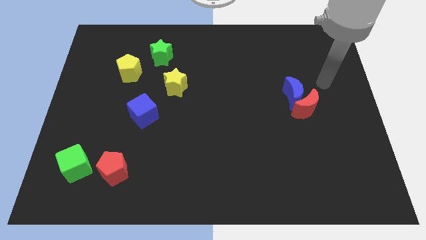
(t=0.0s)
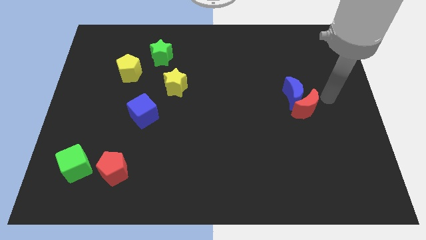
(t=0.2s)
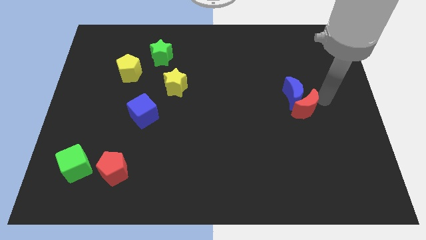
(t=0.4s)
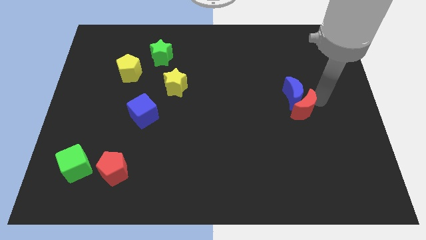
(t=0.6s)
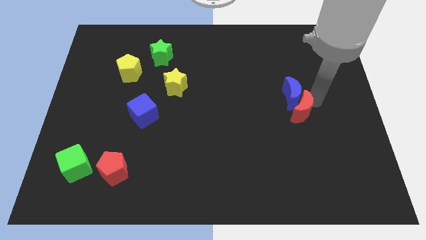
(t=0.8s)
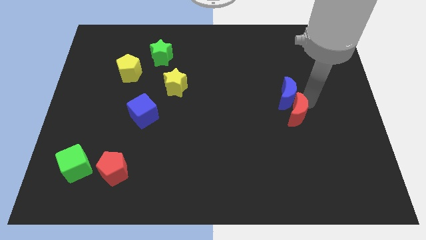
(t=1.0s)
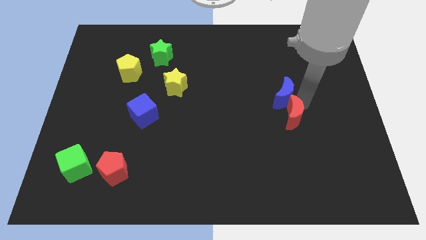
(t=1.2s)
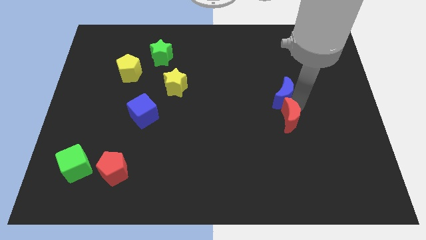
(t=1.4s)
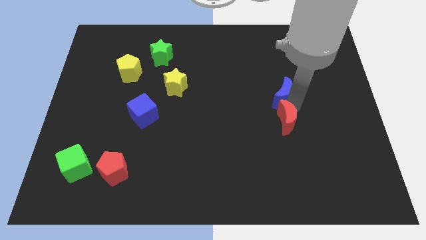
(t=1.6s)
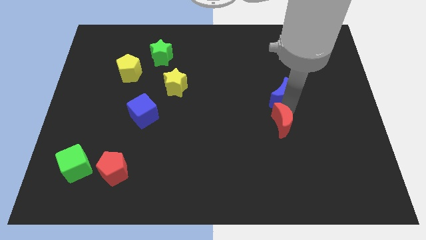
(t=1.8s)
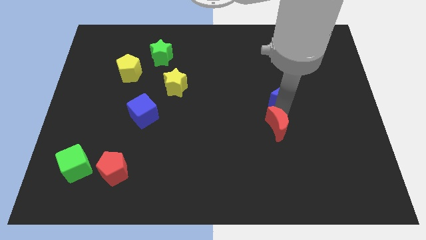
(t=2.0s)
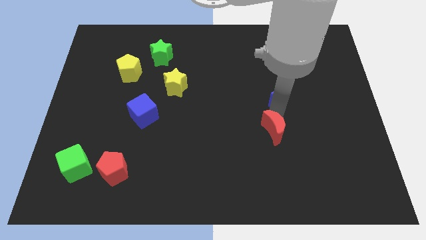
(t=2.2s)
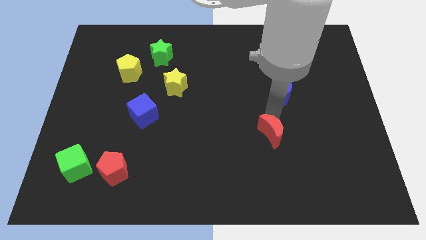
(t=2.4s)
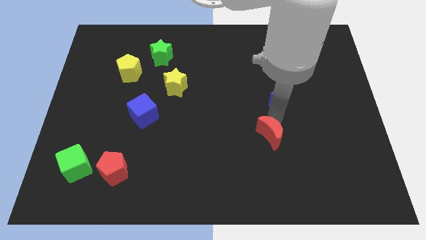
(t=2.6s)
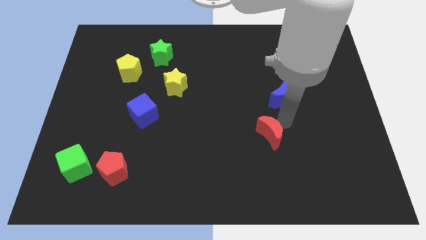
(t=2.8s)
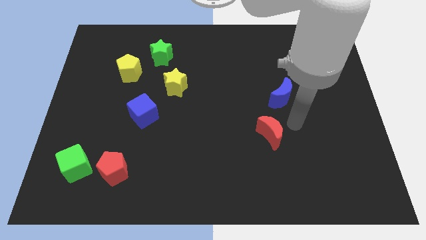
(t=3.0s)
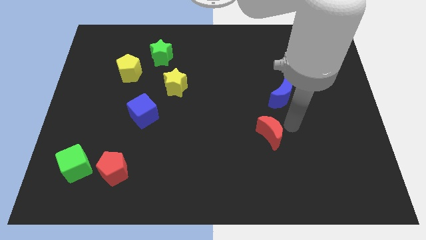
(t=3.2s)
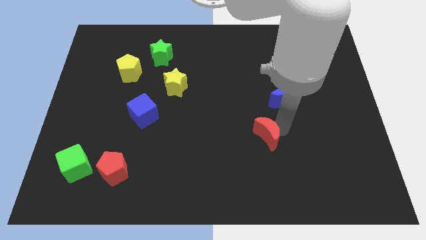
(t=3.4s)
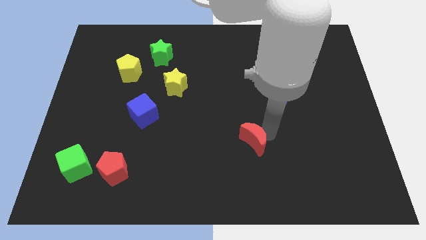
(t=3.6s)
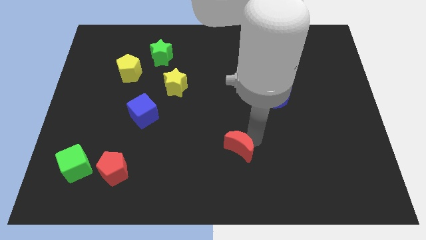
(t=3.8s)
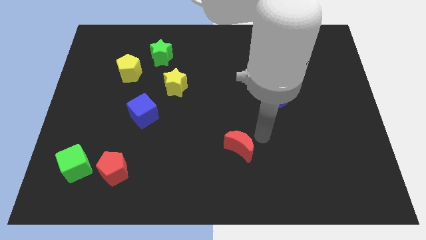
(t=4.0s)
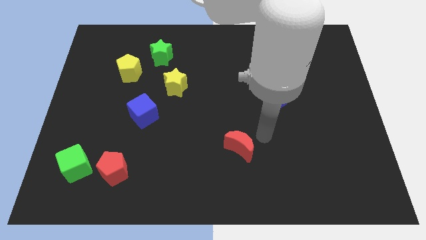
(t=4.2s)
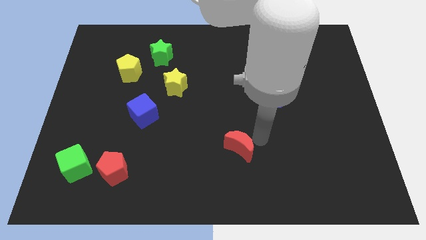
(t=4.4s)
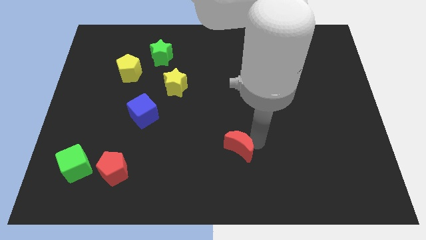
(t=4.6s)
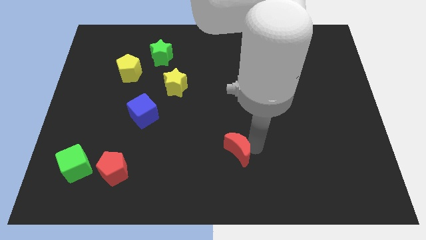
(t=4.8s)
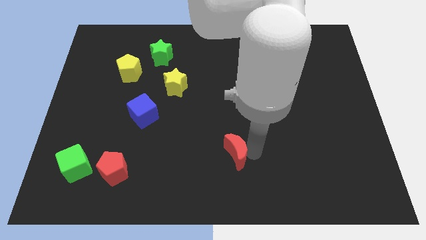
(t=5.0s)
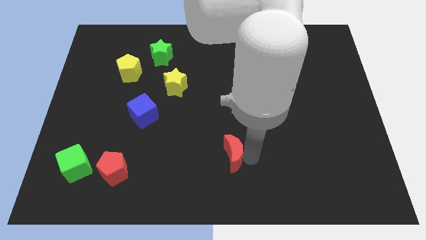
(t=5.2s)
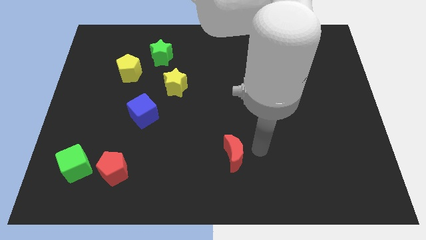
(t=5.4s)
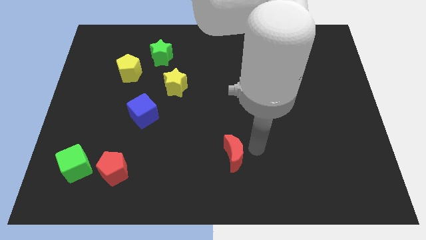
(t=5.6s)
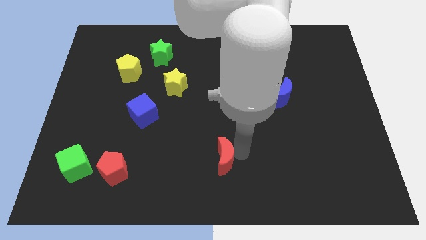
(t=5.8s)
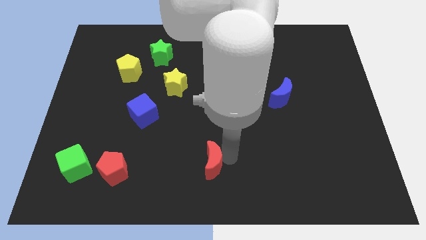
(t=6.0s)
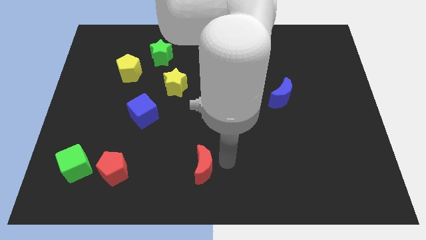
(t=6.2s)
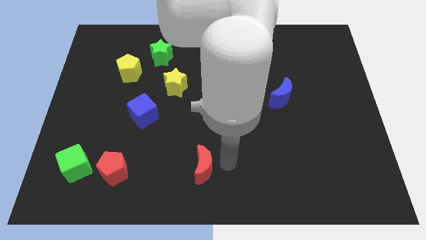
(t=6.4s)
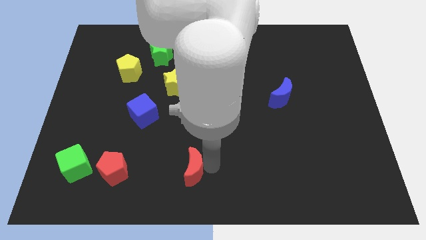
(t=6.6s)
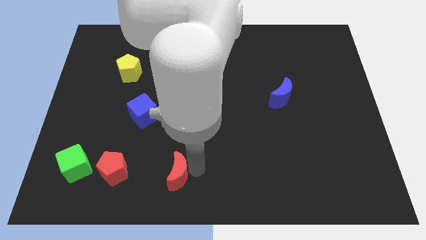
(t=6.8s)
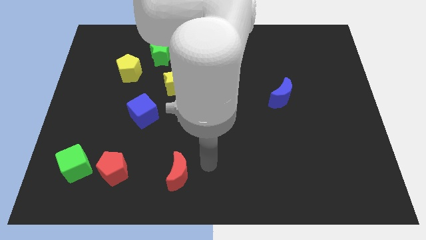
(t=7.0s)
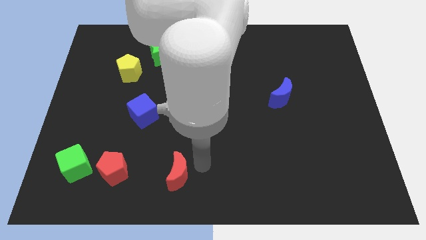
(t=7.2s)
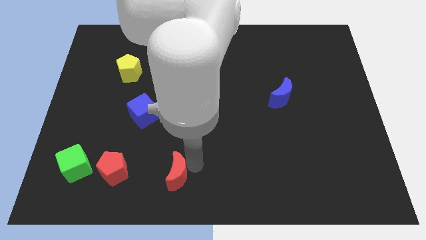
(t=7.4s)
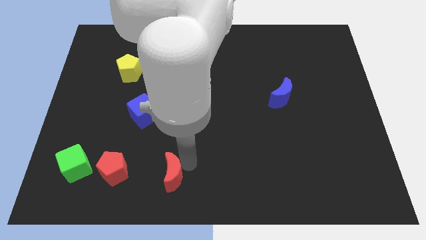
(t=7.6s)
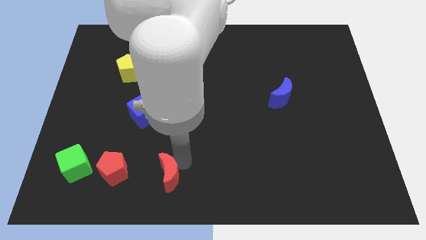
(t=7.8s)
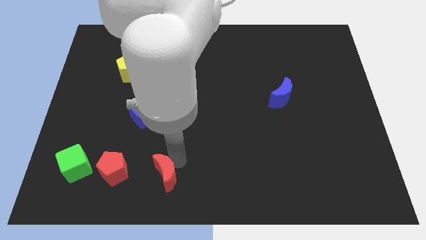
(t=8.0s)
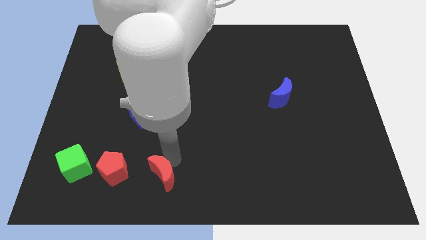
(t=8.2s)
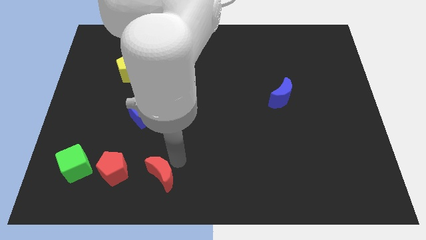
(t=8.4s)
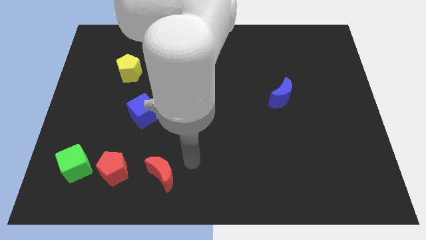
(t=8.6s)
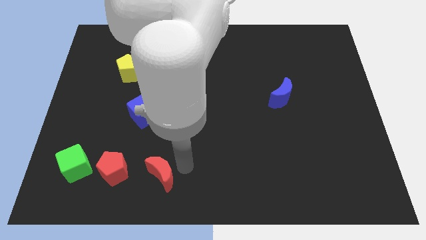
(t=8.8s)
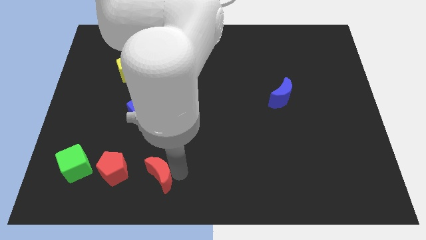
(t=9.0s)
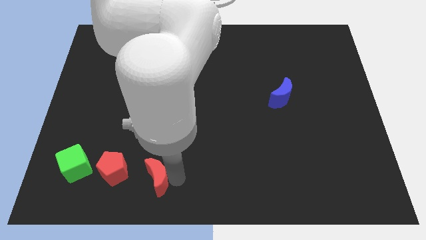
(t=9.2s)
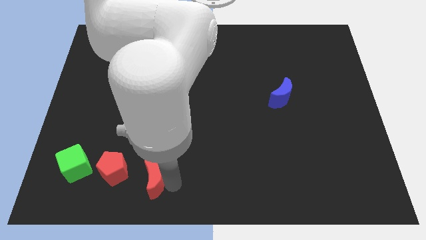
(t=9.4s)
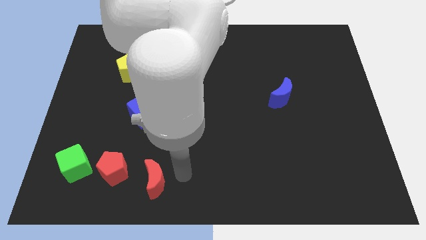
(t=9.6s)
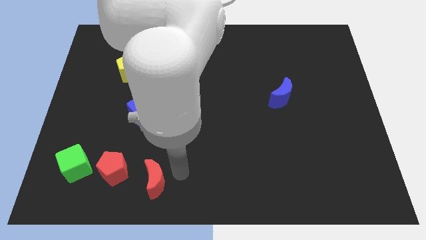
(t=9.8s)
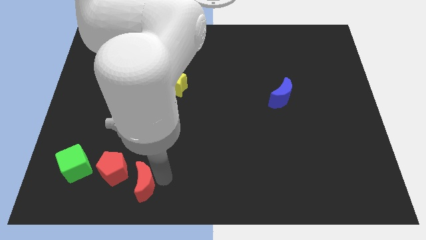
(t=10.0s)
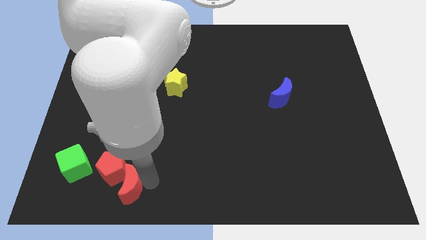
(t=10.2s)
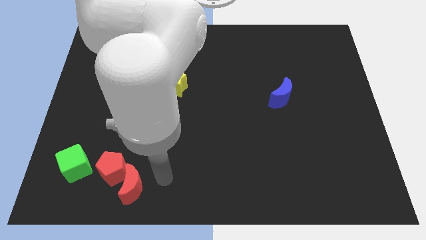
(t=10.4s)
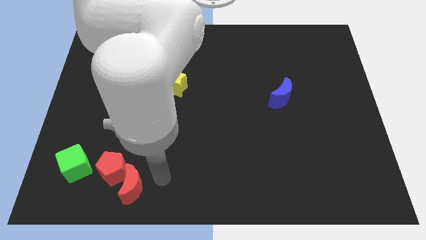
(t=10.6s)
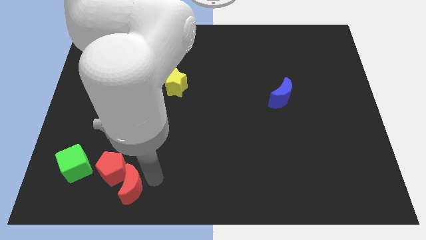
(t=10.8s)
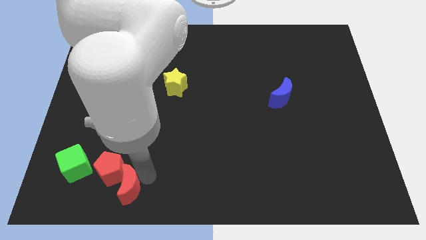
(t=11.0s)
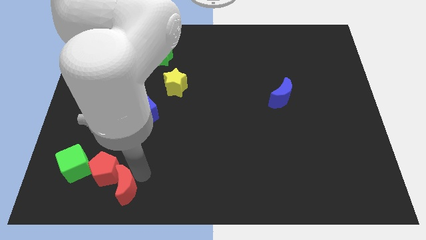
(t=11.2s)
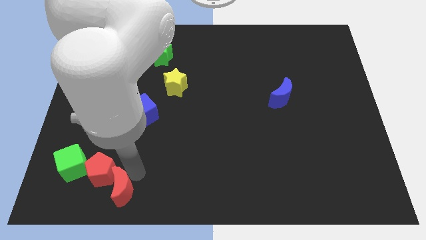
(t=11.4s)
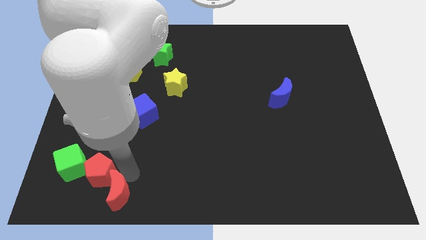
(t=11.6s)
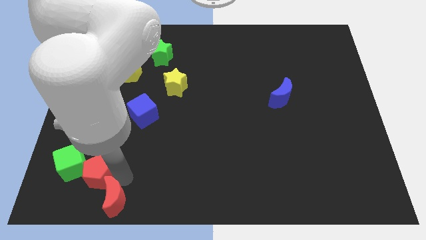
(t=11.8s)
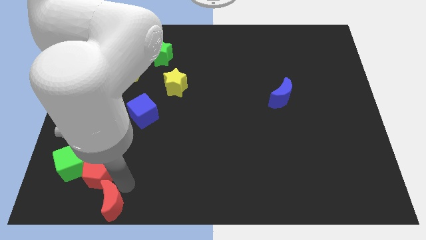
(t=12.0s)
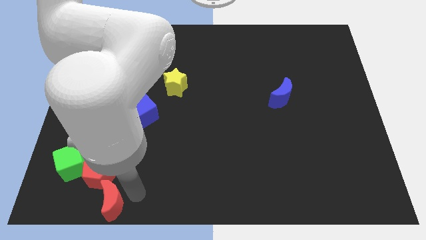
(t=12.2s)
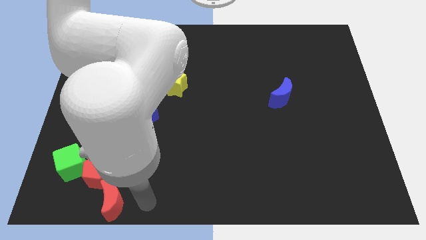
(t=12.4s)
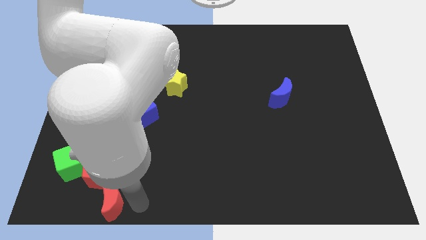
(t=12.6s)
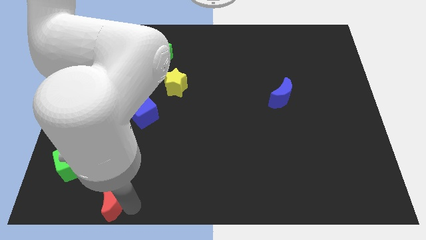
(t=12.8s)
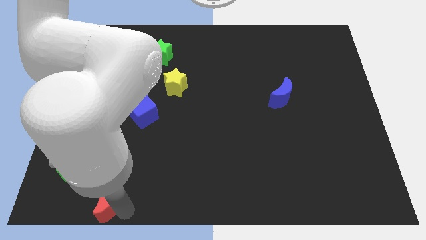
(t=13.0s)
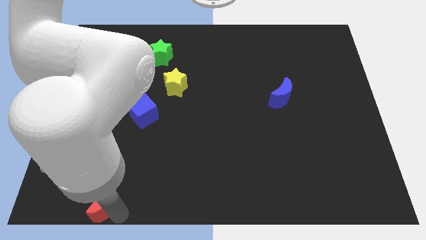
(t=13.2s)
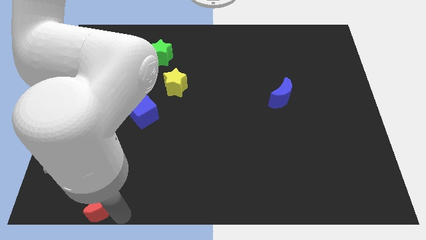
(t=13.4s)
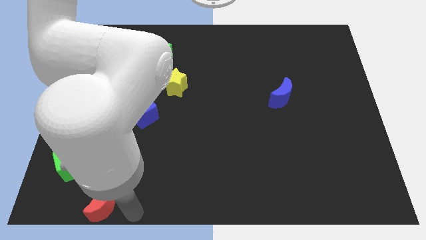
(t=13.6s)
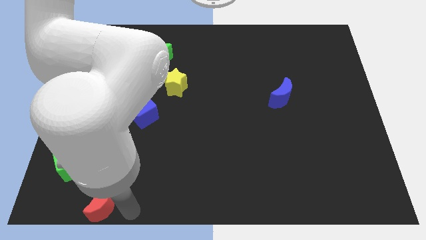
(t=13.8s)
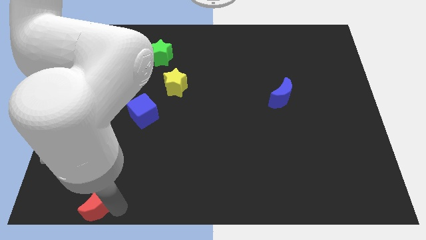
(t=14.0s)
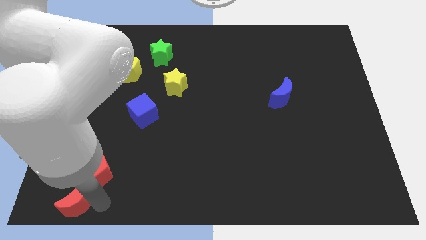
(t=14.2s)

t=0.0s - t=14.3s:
move the red moon to the bottom left of the board
